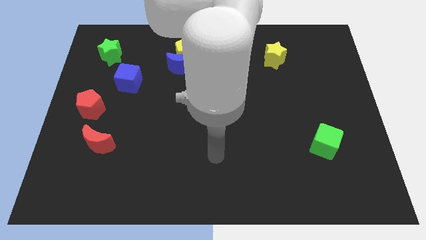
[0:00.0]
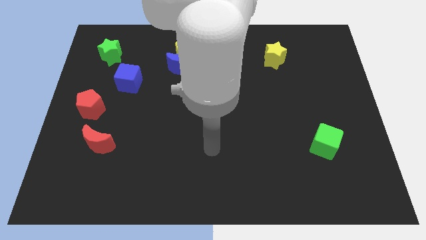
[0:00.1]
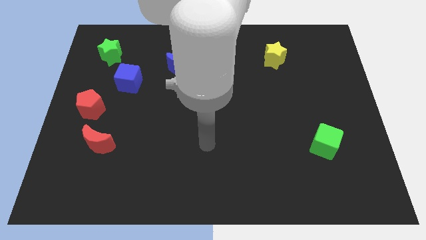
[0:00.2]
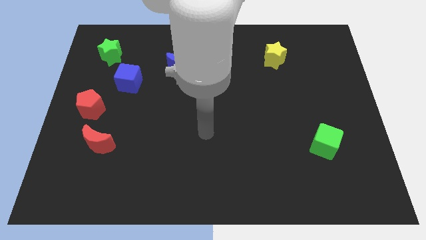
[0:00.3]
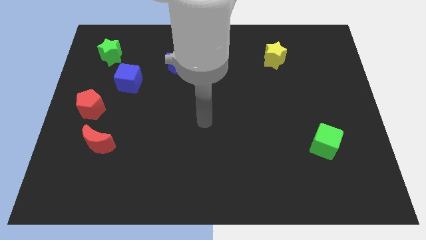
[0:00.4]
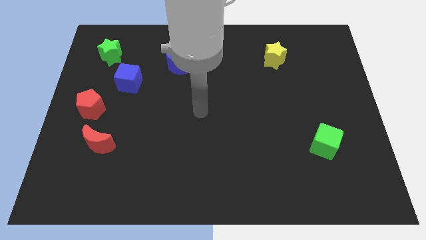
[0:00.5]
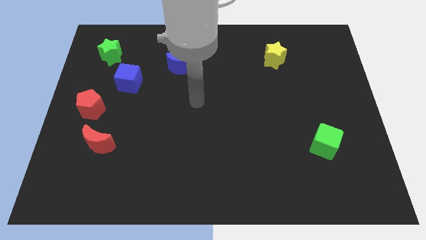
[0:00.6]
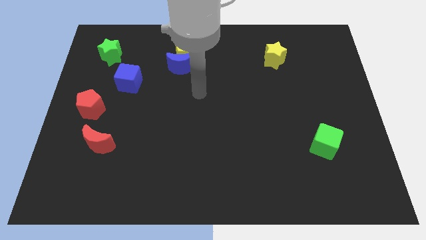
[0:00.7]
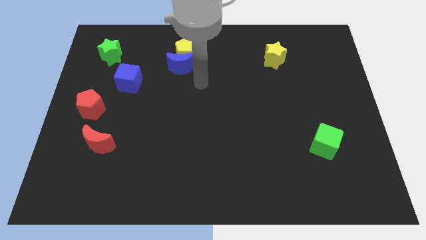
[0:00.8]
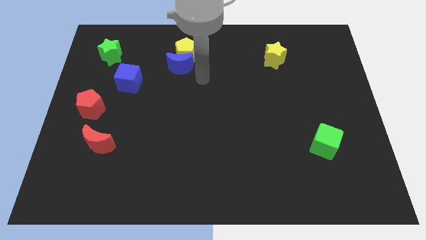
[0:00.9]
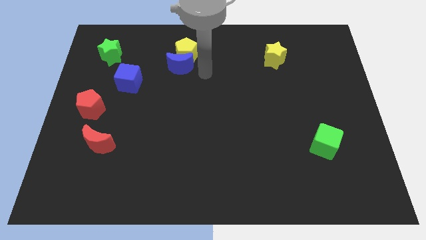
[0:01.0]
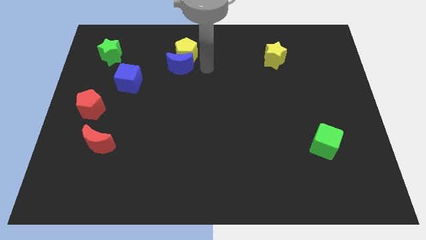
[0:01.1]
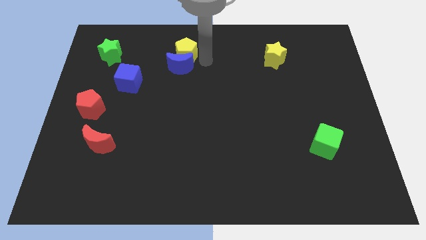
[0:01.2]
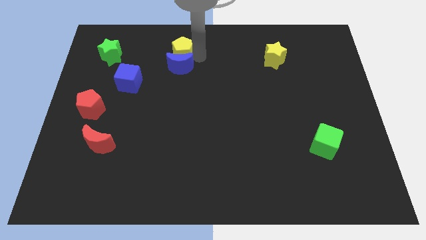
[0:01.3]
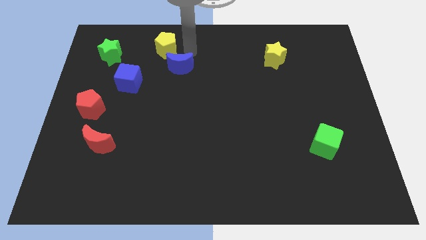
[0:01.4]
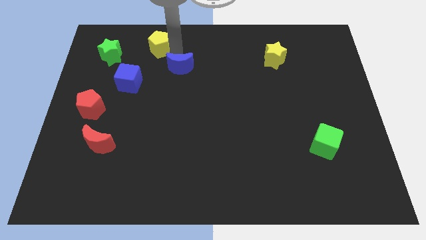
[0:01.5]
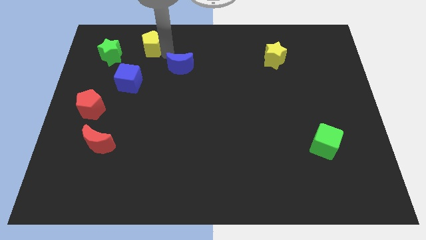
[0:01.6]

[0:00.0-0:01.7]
pull the blue moon apart from the yellow pentagon

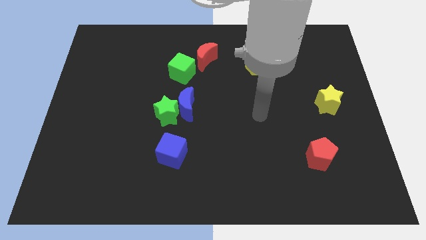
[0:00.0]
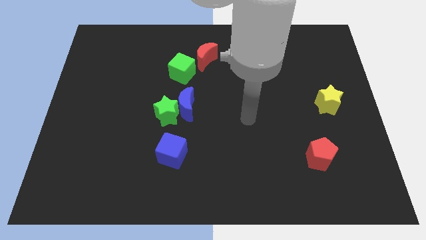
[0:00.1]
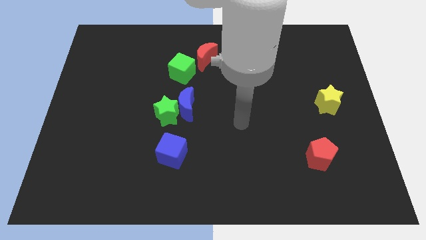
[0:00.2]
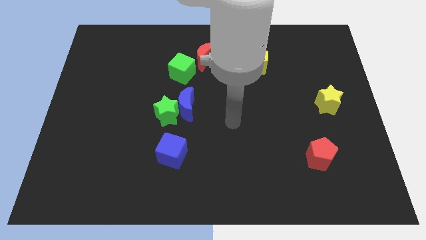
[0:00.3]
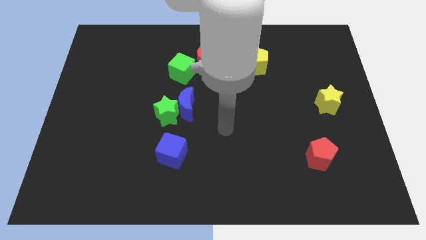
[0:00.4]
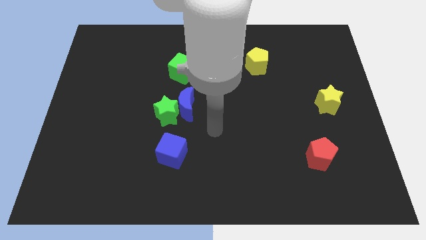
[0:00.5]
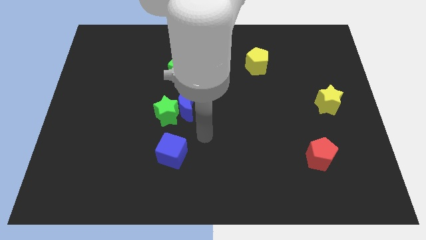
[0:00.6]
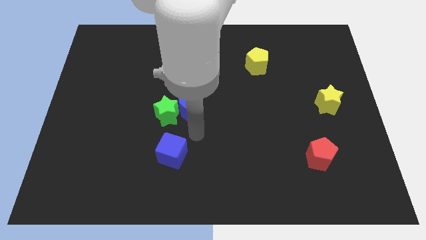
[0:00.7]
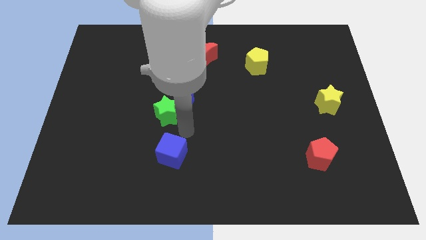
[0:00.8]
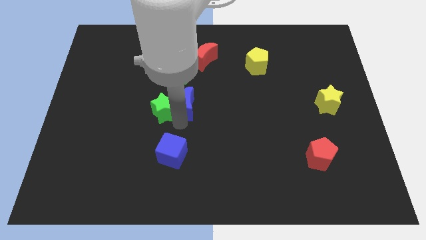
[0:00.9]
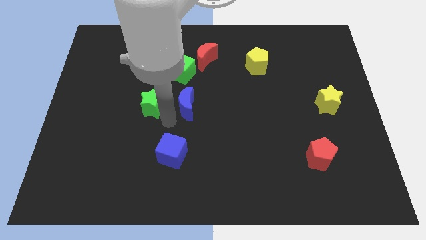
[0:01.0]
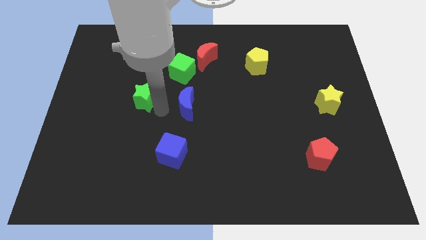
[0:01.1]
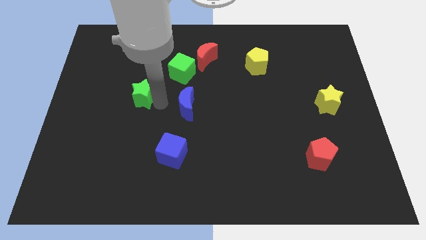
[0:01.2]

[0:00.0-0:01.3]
move the blue moon away from the green star

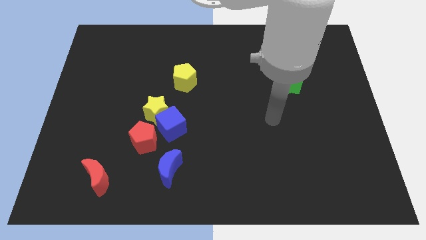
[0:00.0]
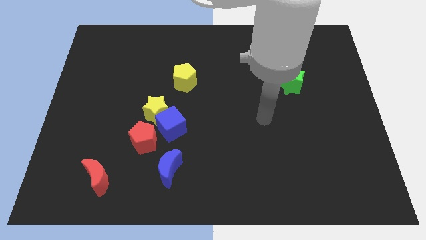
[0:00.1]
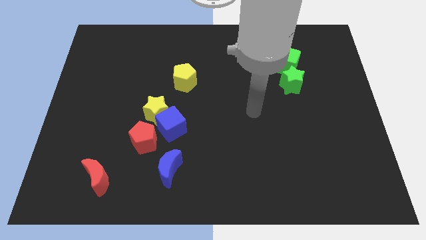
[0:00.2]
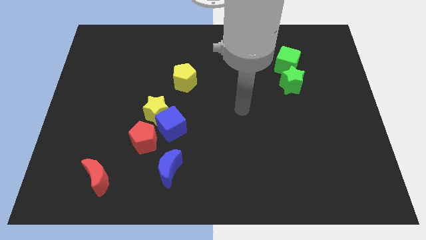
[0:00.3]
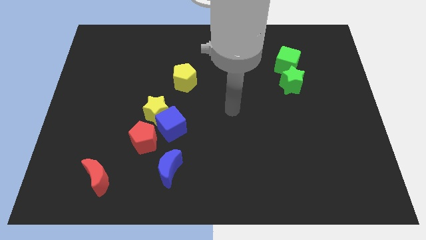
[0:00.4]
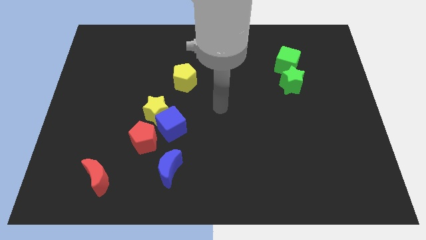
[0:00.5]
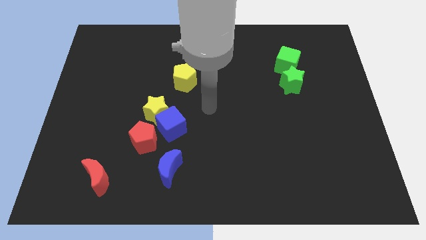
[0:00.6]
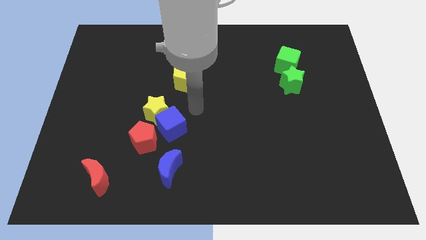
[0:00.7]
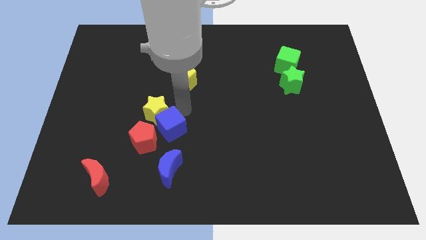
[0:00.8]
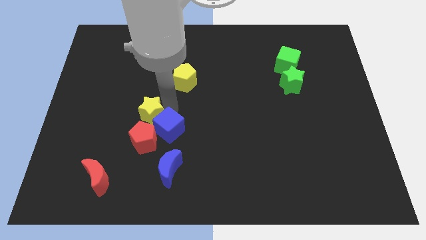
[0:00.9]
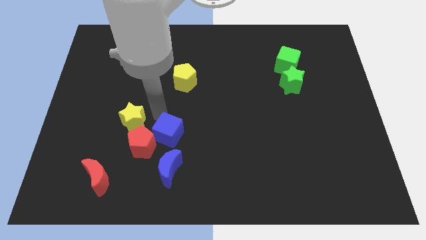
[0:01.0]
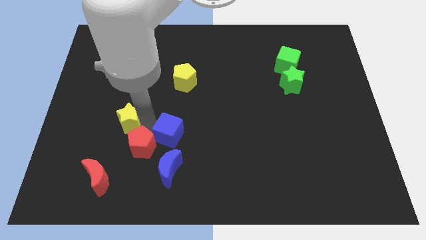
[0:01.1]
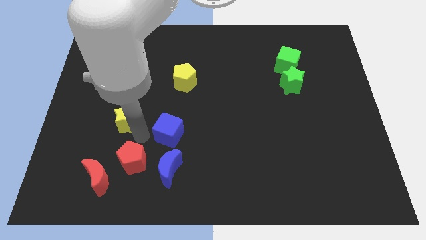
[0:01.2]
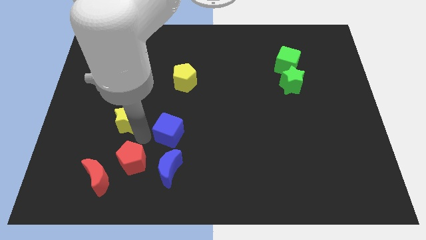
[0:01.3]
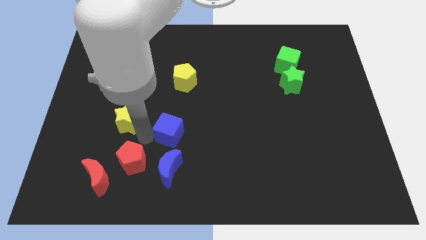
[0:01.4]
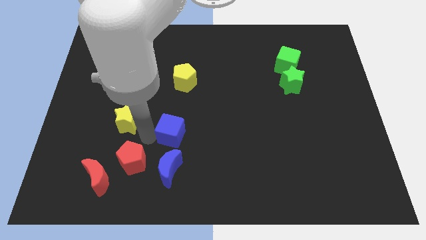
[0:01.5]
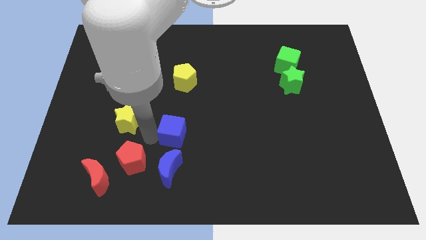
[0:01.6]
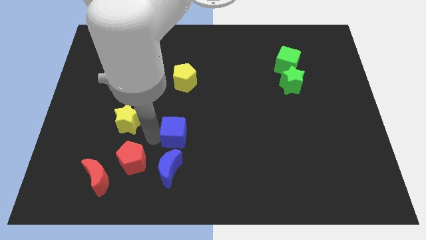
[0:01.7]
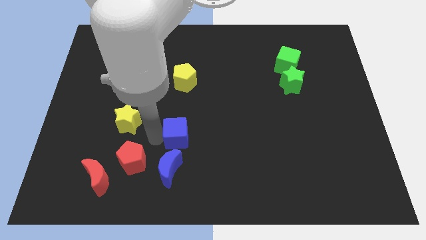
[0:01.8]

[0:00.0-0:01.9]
separate the blue cube from the yellow star and red pentagon

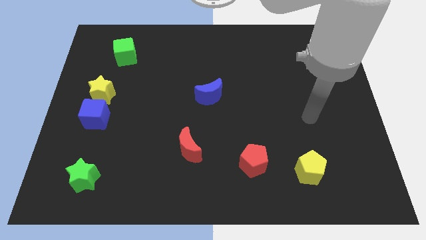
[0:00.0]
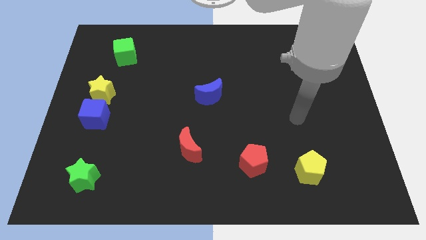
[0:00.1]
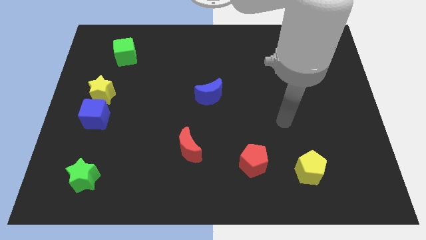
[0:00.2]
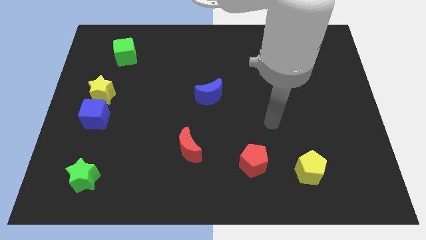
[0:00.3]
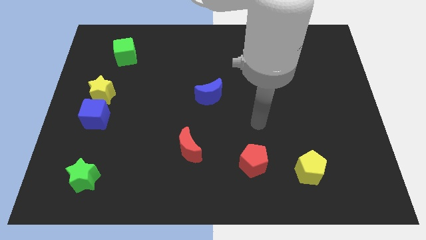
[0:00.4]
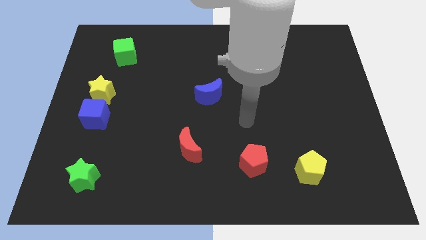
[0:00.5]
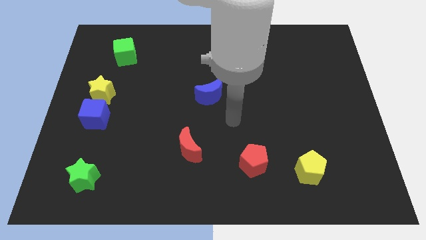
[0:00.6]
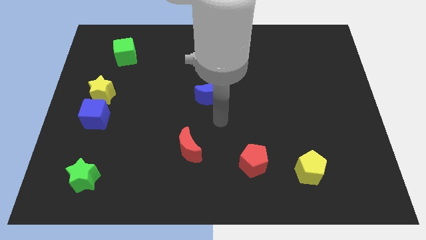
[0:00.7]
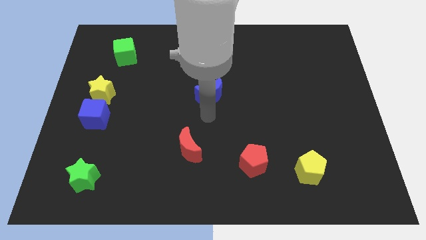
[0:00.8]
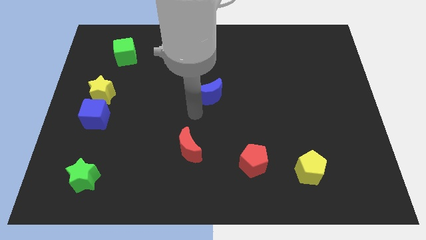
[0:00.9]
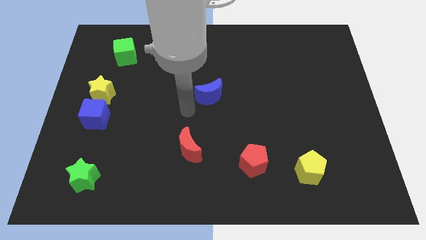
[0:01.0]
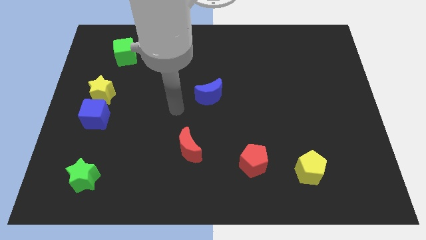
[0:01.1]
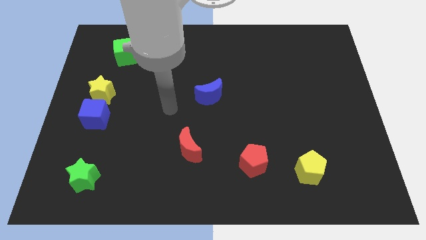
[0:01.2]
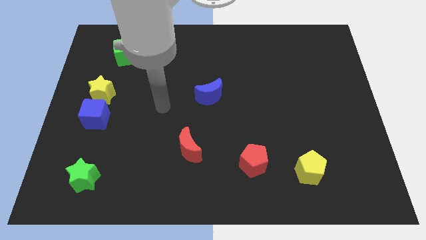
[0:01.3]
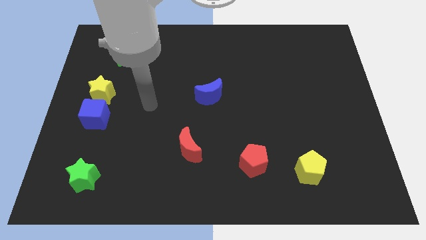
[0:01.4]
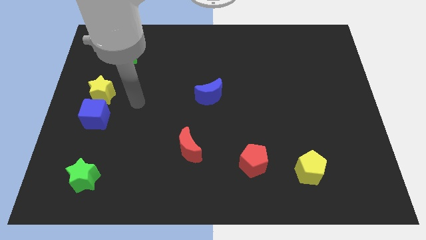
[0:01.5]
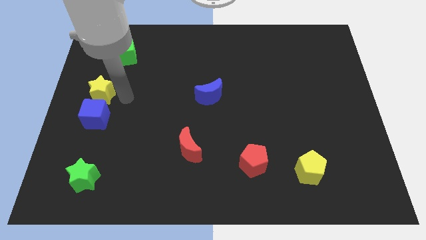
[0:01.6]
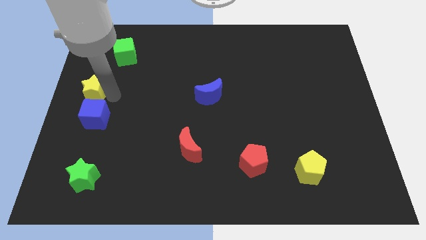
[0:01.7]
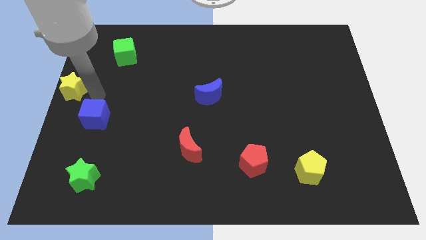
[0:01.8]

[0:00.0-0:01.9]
pull the blue cube apart from the yellow star

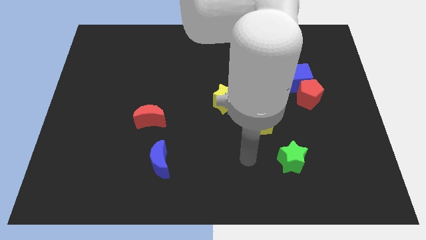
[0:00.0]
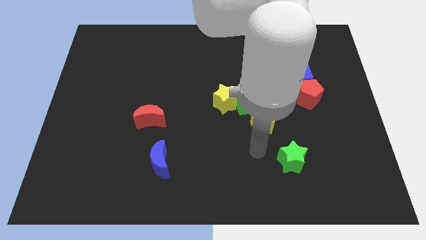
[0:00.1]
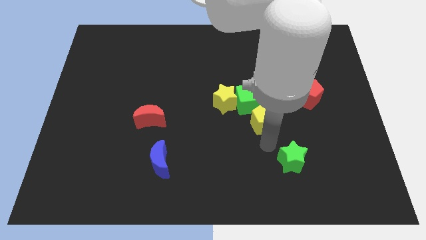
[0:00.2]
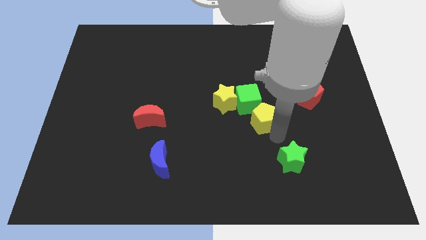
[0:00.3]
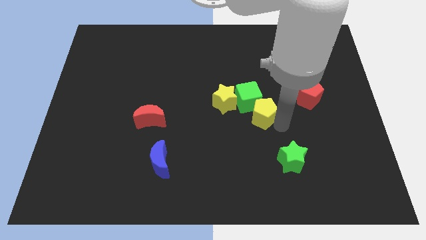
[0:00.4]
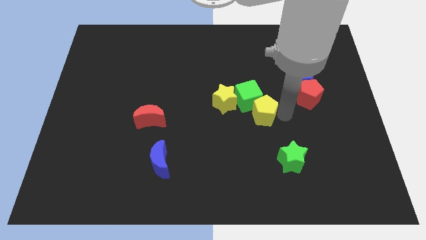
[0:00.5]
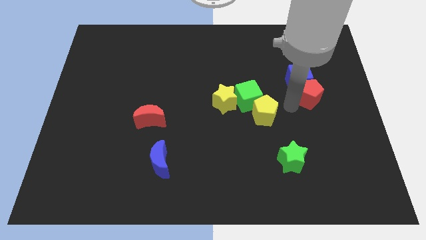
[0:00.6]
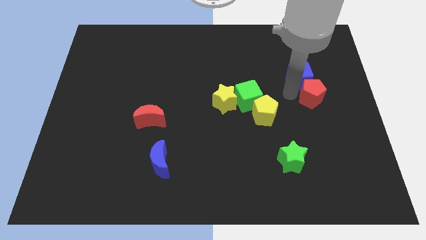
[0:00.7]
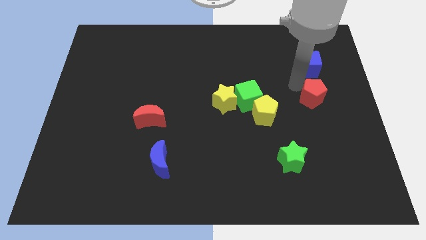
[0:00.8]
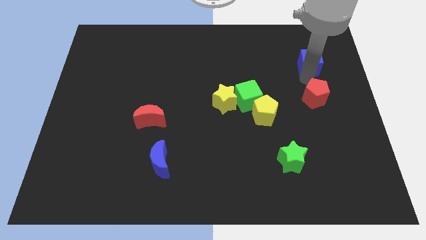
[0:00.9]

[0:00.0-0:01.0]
move the red pentagon away from the blue cube

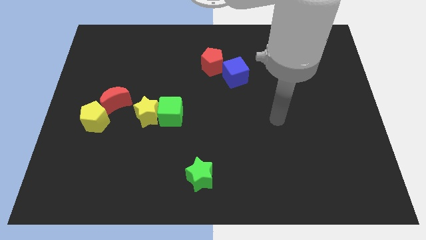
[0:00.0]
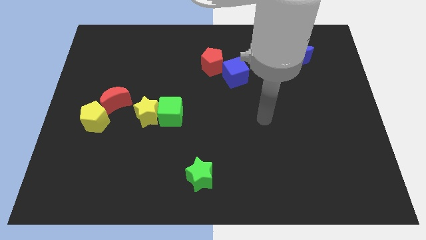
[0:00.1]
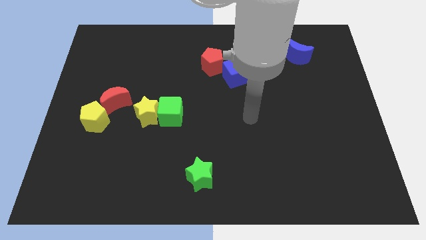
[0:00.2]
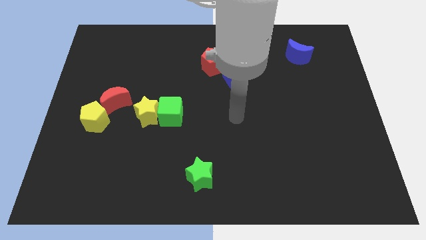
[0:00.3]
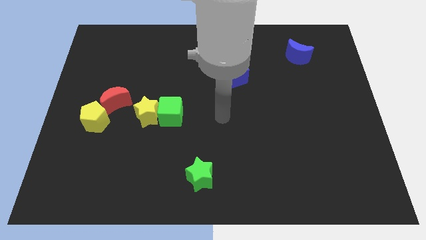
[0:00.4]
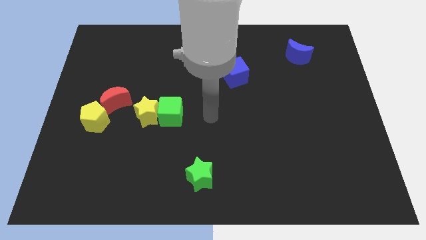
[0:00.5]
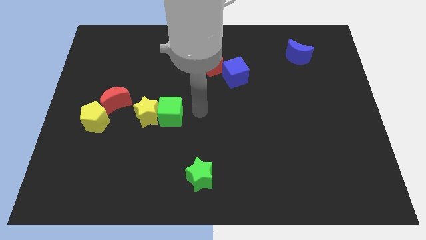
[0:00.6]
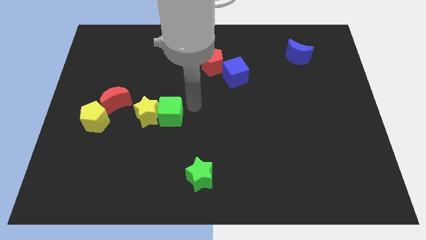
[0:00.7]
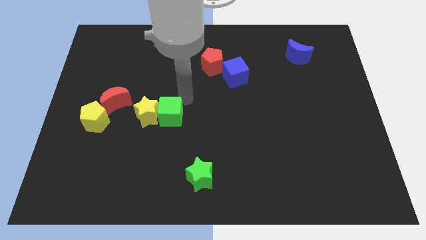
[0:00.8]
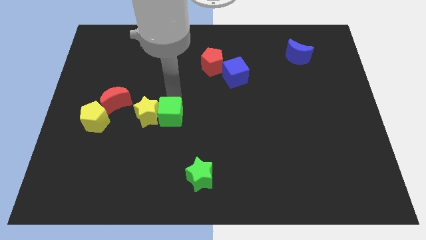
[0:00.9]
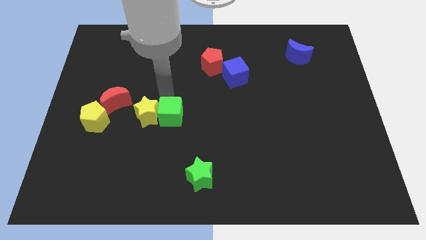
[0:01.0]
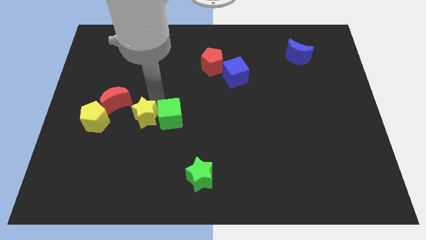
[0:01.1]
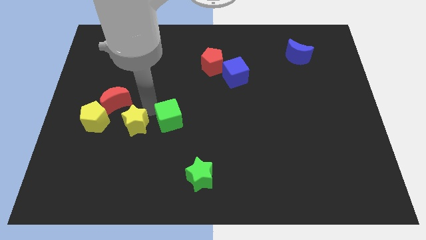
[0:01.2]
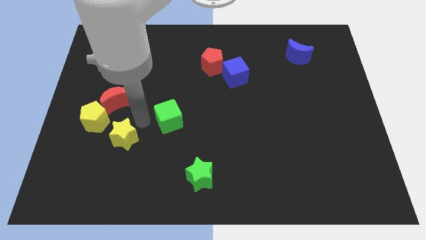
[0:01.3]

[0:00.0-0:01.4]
separate the green cube from the yellow star
